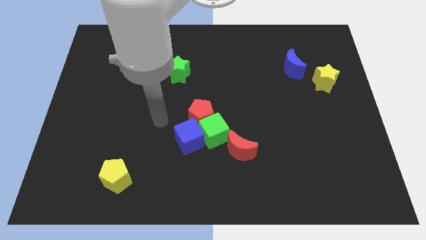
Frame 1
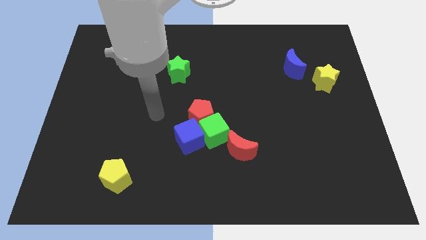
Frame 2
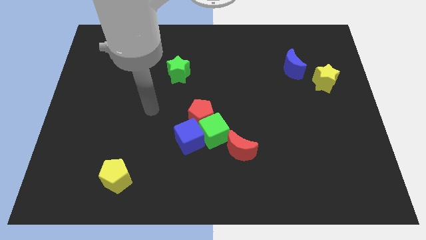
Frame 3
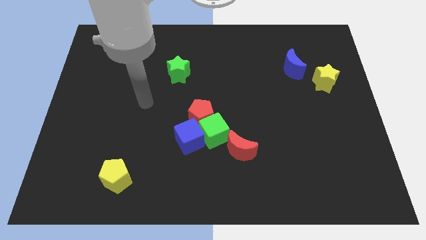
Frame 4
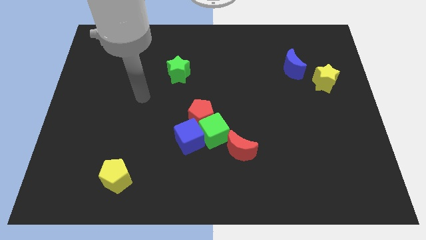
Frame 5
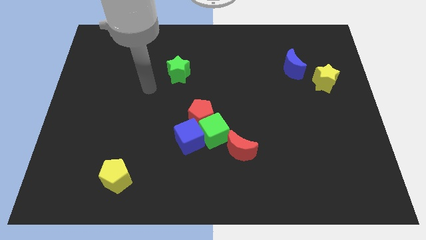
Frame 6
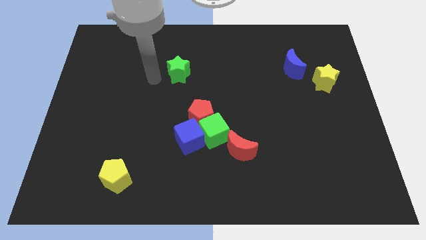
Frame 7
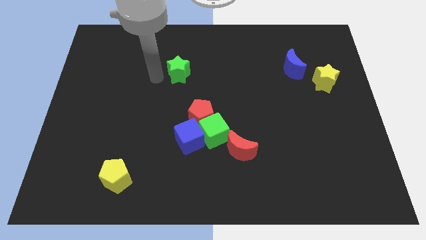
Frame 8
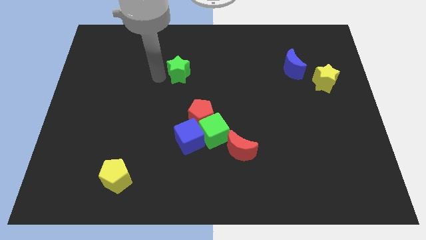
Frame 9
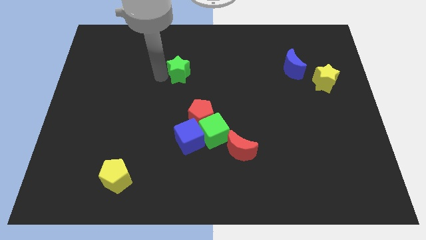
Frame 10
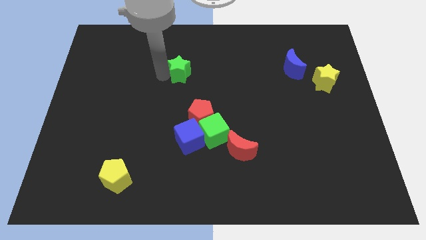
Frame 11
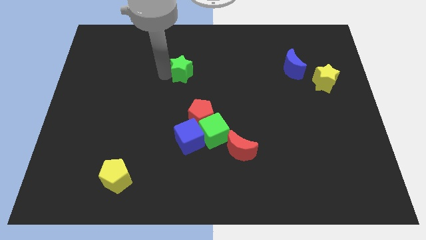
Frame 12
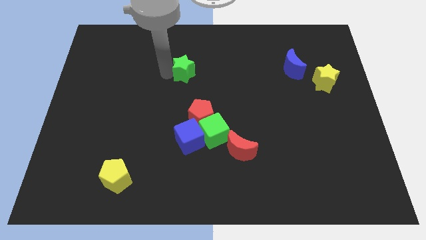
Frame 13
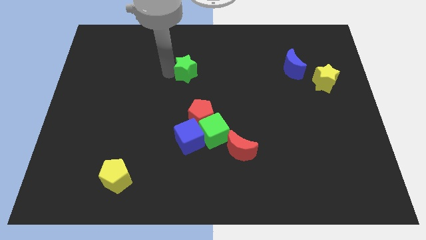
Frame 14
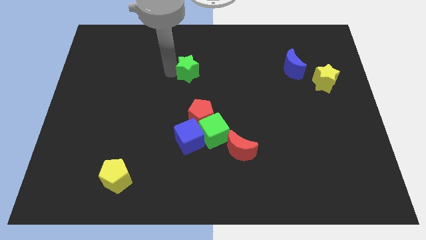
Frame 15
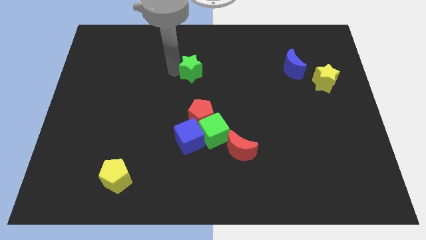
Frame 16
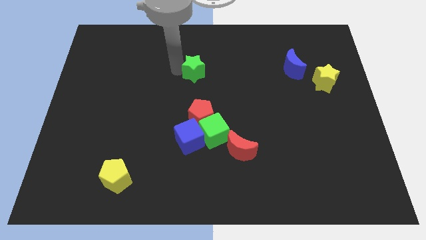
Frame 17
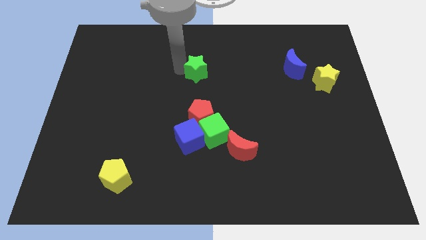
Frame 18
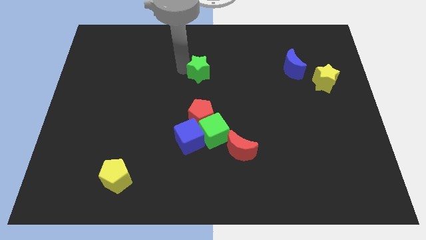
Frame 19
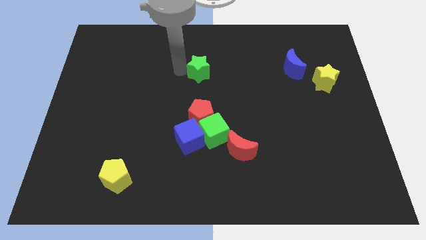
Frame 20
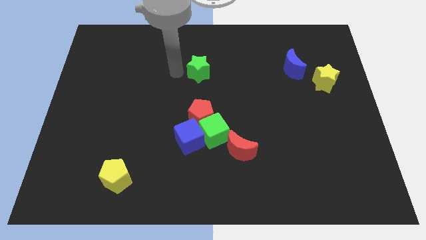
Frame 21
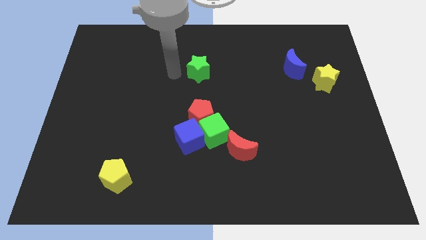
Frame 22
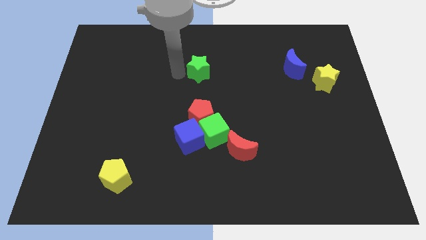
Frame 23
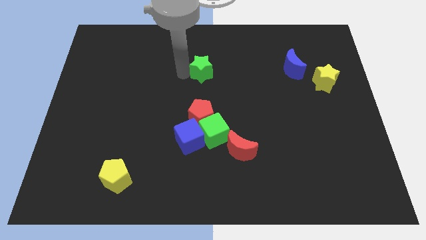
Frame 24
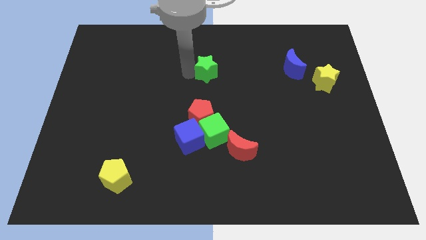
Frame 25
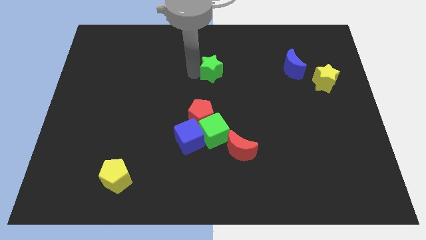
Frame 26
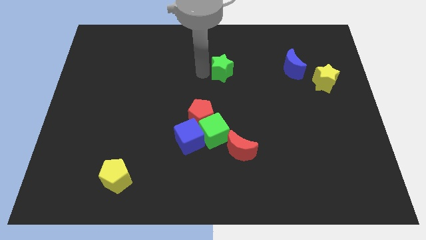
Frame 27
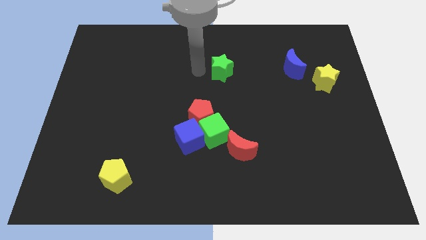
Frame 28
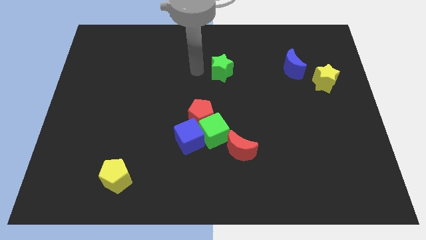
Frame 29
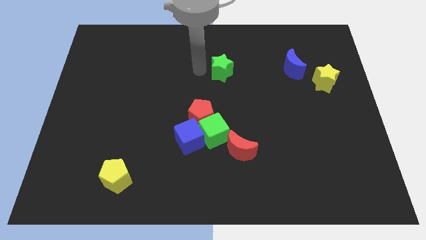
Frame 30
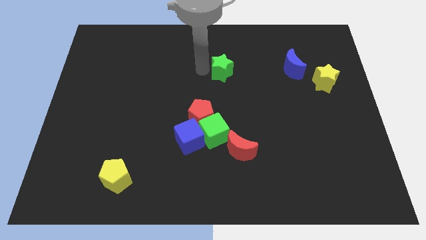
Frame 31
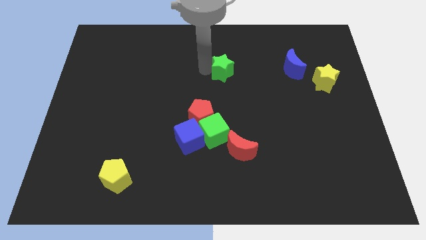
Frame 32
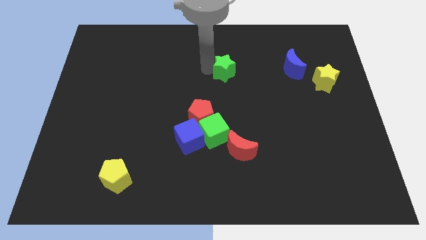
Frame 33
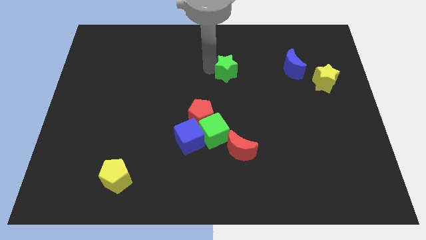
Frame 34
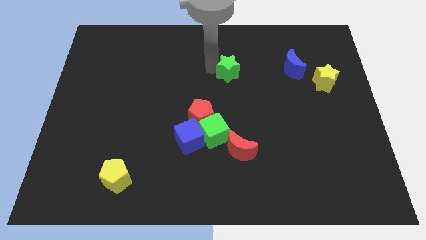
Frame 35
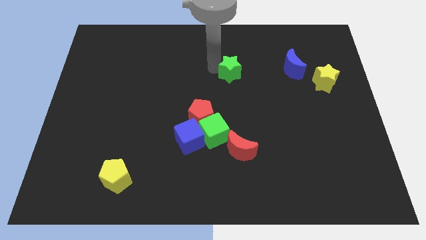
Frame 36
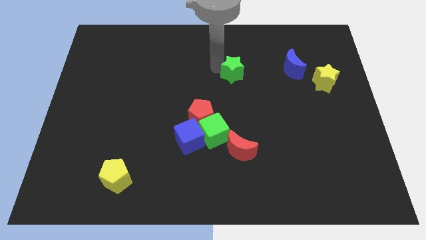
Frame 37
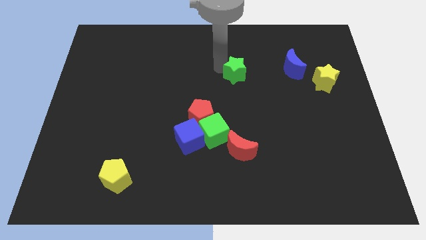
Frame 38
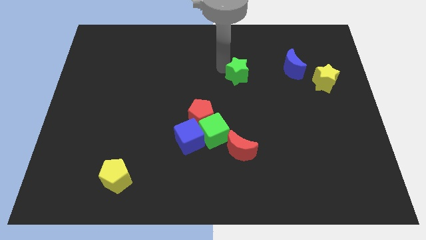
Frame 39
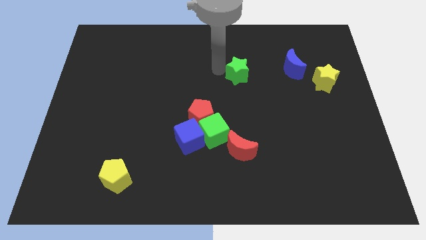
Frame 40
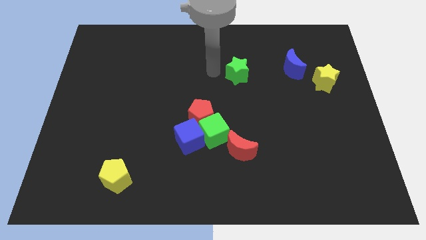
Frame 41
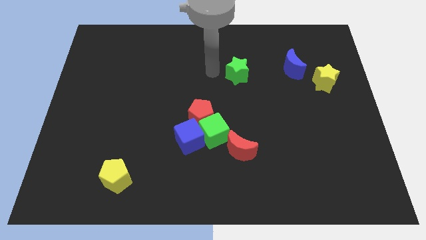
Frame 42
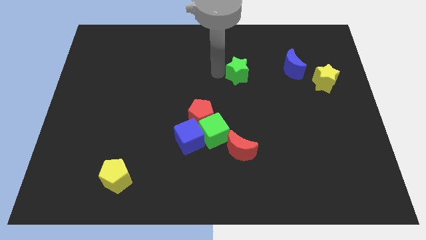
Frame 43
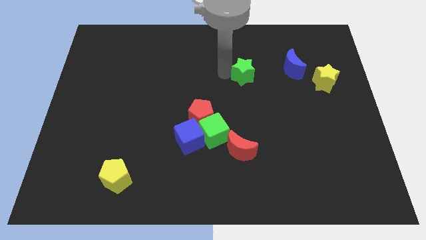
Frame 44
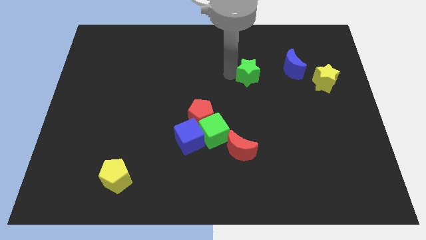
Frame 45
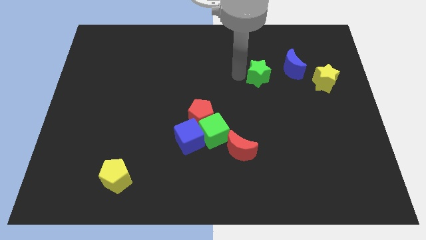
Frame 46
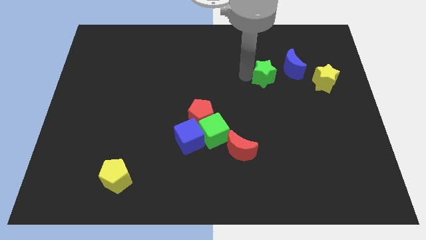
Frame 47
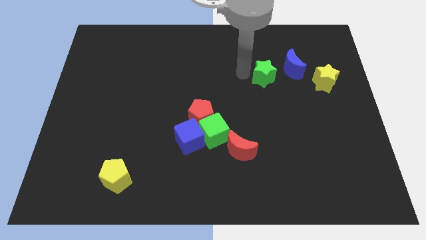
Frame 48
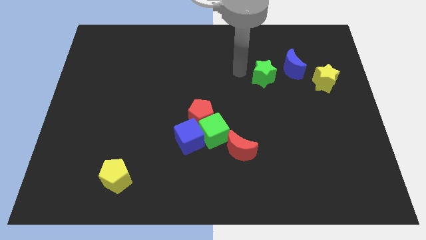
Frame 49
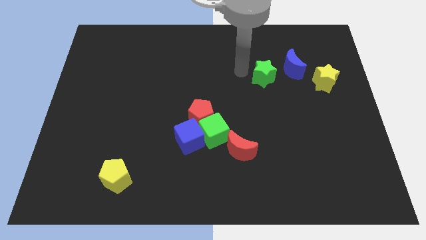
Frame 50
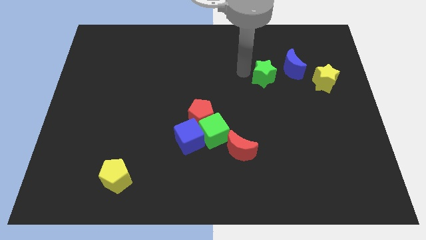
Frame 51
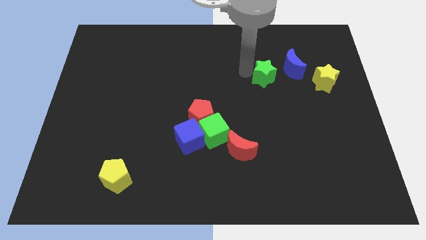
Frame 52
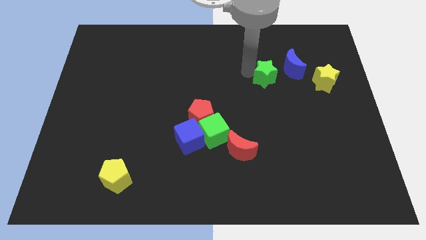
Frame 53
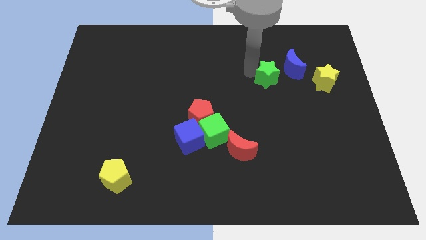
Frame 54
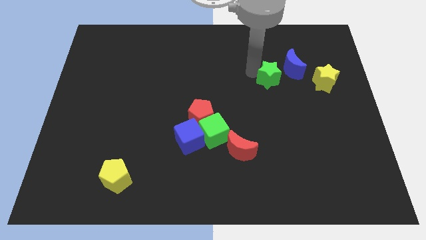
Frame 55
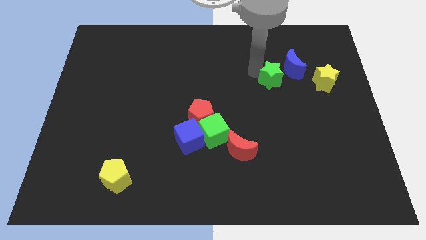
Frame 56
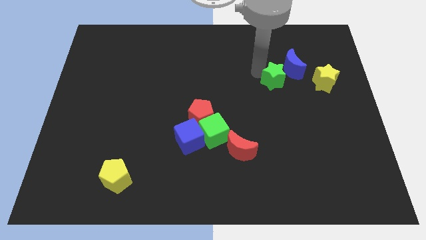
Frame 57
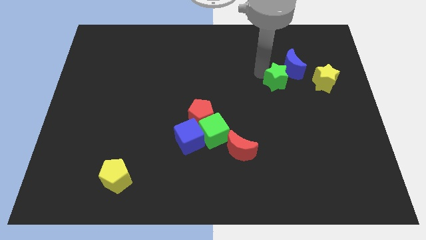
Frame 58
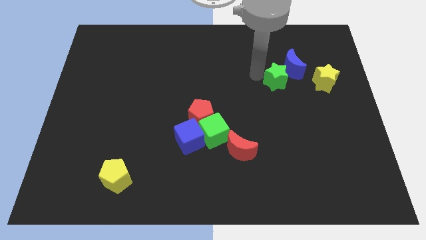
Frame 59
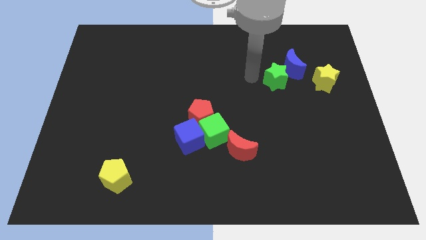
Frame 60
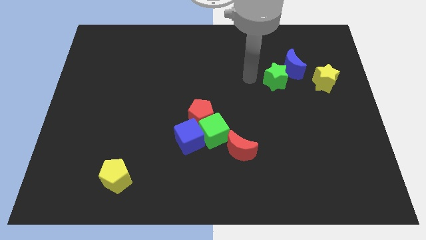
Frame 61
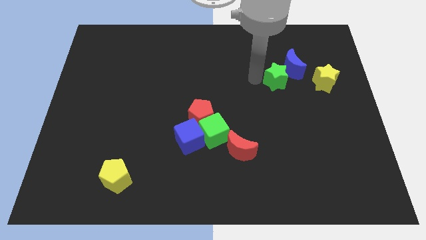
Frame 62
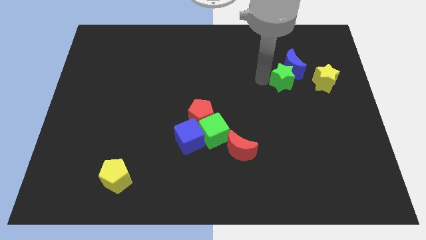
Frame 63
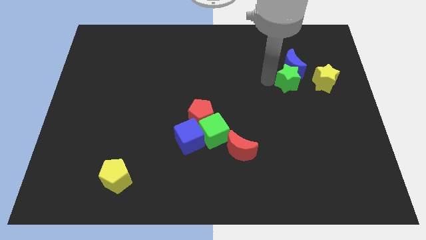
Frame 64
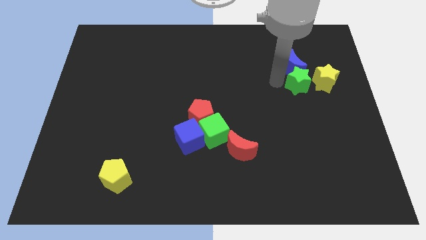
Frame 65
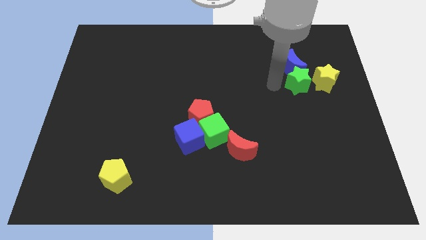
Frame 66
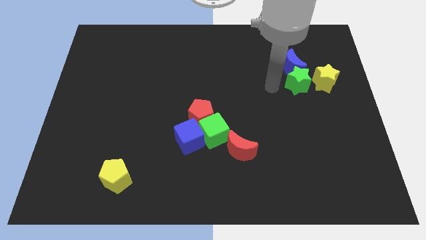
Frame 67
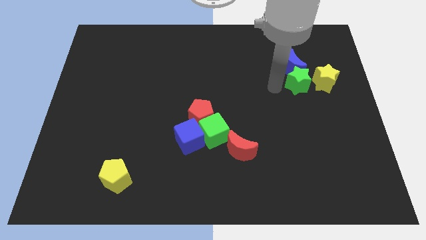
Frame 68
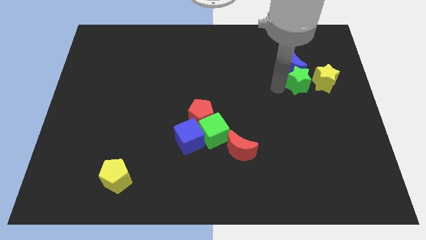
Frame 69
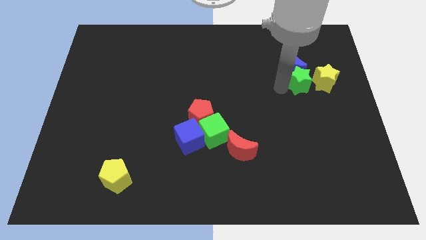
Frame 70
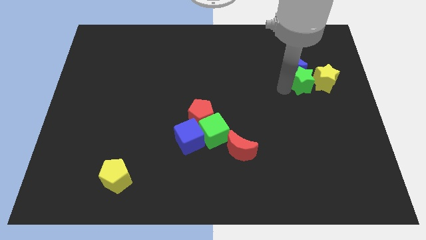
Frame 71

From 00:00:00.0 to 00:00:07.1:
slide the green star towards the yellow star

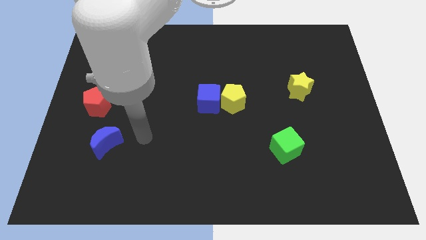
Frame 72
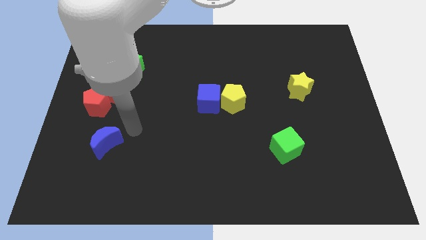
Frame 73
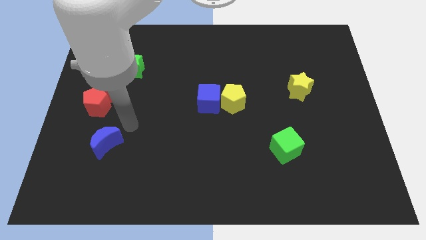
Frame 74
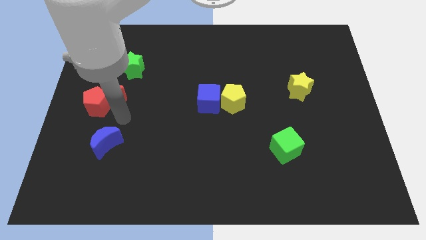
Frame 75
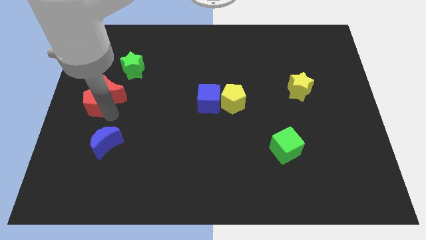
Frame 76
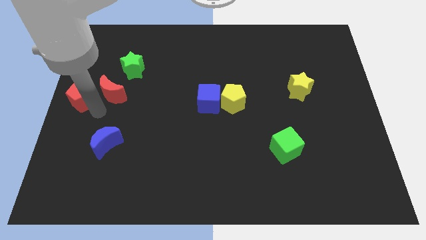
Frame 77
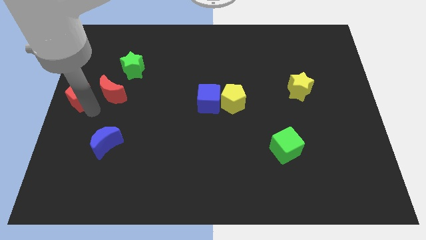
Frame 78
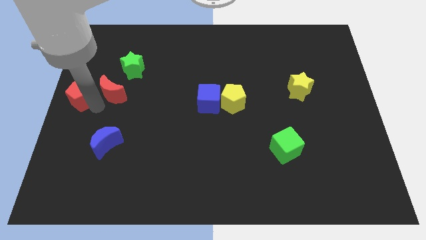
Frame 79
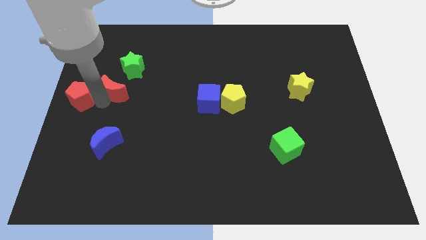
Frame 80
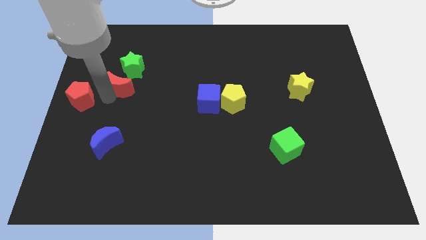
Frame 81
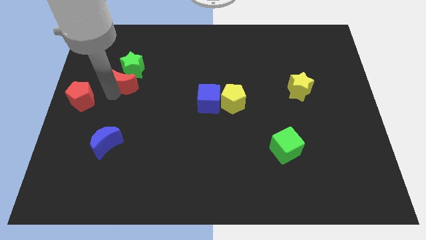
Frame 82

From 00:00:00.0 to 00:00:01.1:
push the red moon to the green star
